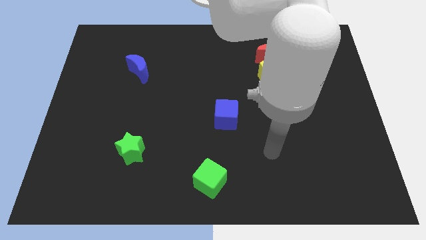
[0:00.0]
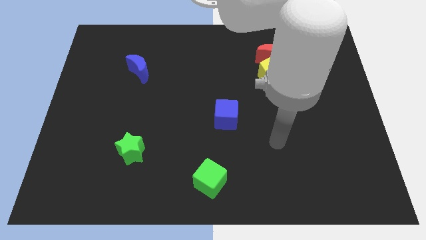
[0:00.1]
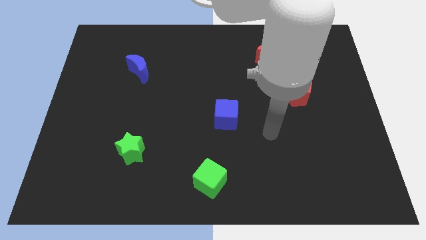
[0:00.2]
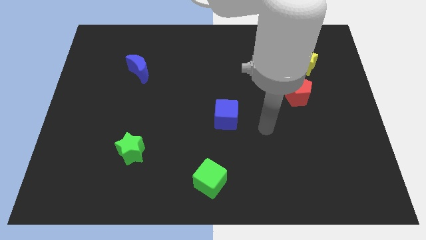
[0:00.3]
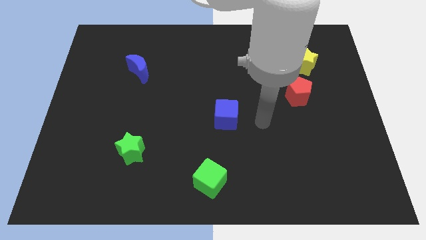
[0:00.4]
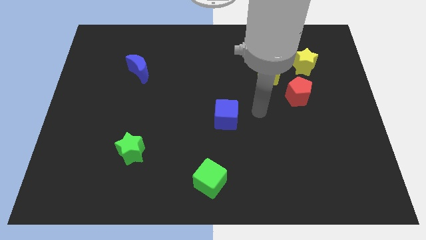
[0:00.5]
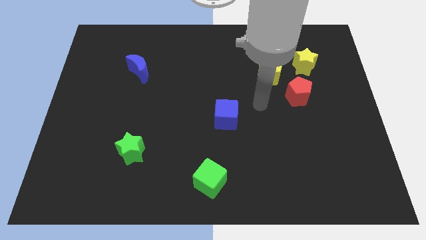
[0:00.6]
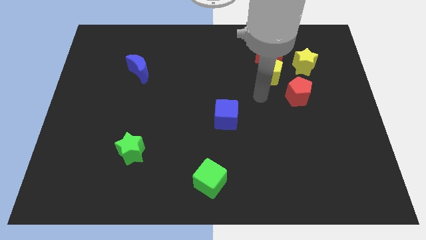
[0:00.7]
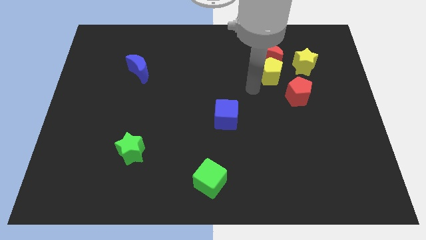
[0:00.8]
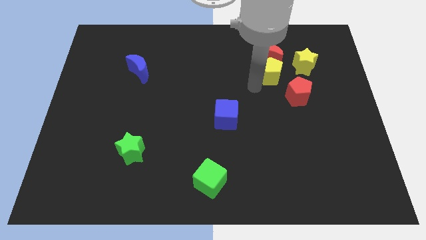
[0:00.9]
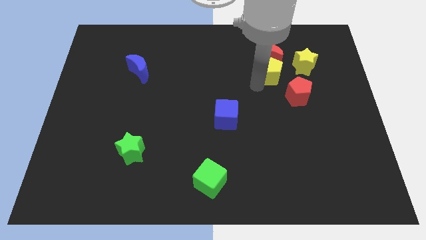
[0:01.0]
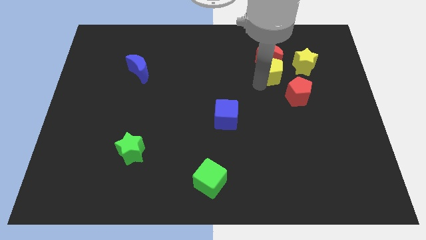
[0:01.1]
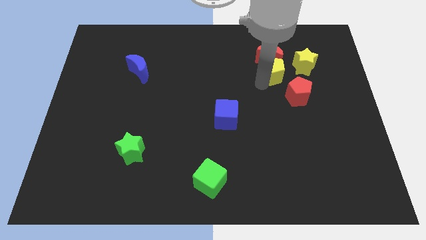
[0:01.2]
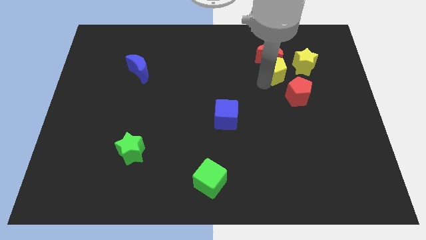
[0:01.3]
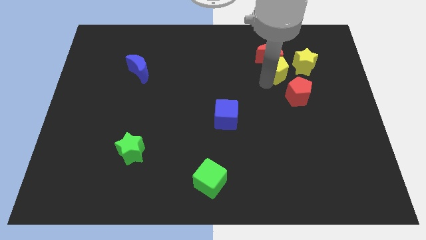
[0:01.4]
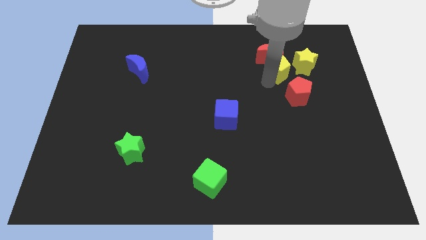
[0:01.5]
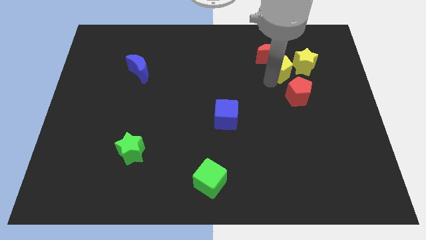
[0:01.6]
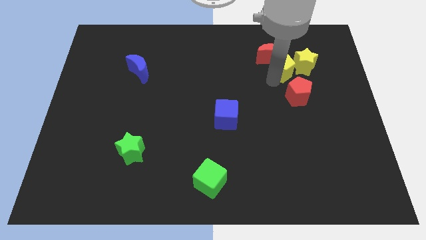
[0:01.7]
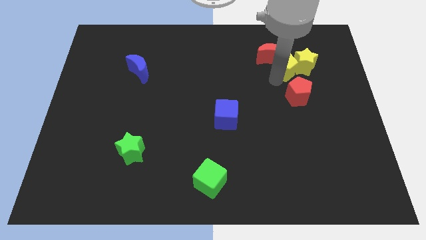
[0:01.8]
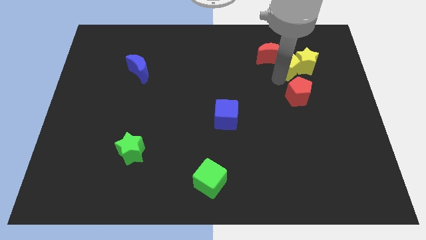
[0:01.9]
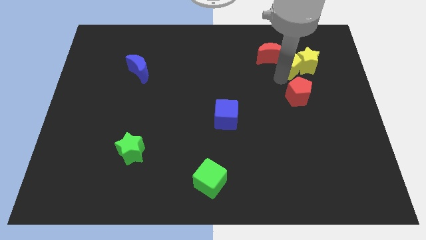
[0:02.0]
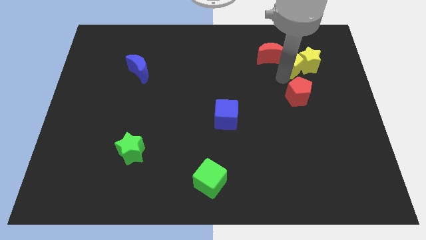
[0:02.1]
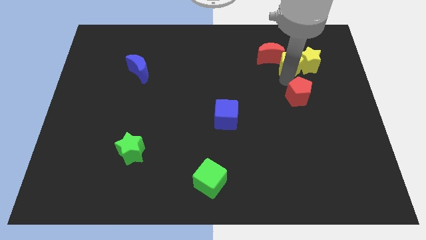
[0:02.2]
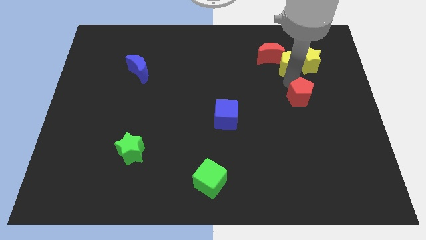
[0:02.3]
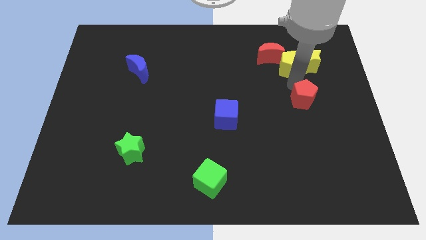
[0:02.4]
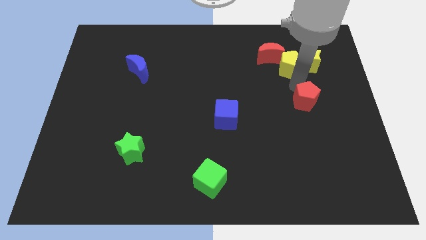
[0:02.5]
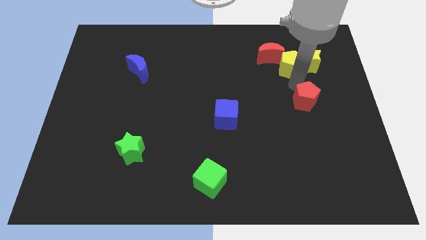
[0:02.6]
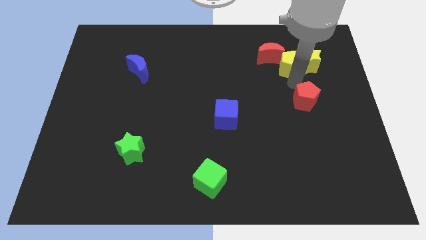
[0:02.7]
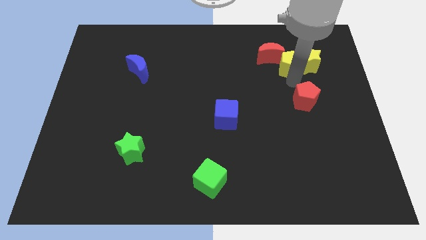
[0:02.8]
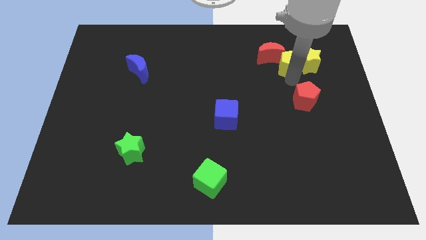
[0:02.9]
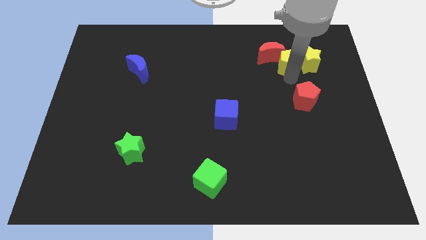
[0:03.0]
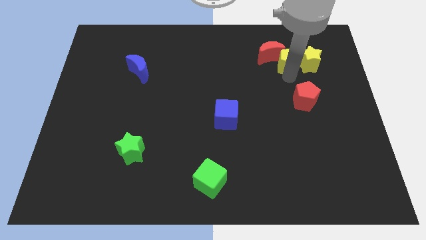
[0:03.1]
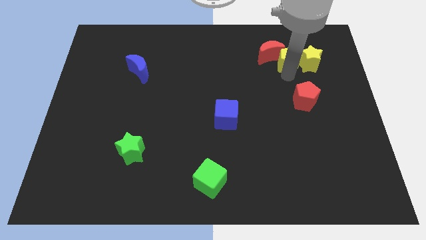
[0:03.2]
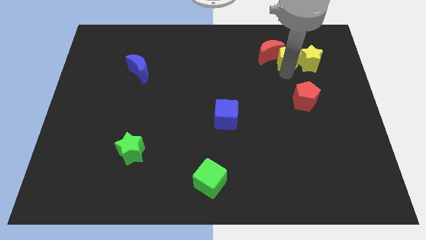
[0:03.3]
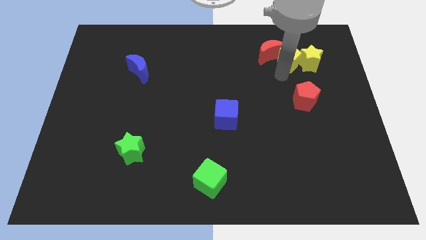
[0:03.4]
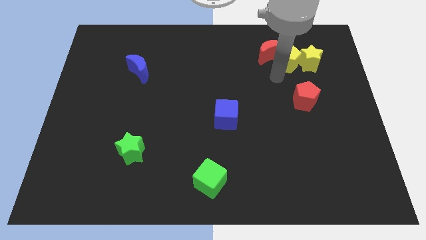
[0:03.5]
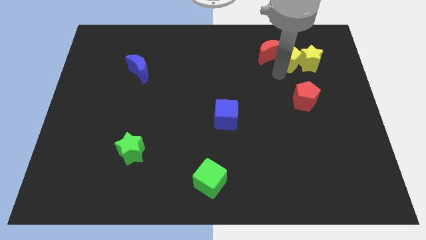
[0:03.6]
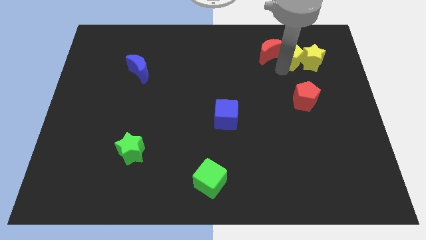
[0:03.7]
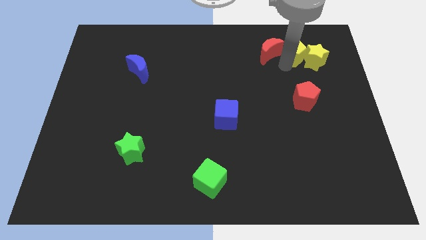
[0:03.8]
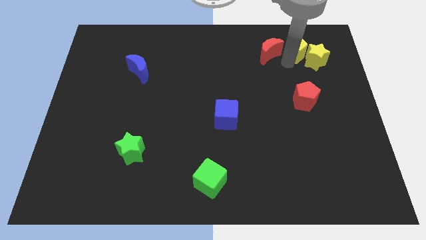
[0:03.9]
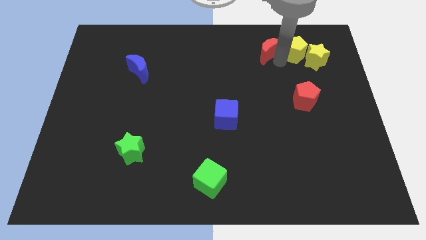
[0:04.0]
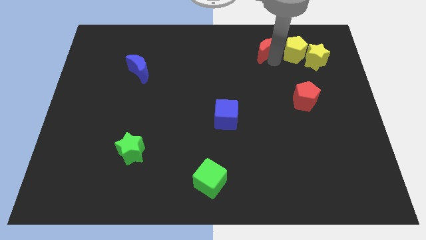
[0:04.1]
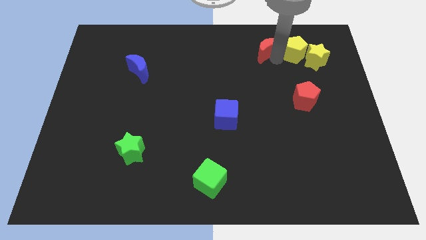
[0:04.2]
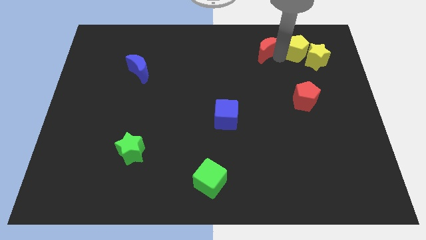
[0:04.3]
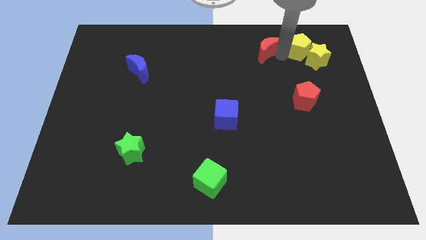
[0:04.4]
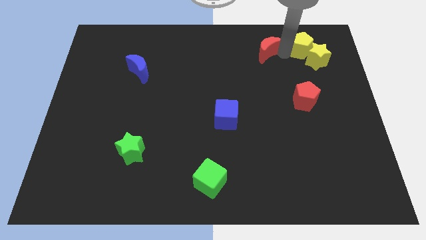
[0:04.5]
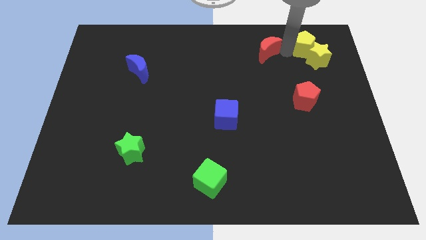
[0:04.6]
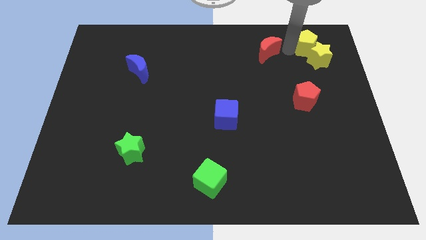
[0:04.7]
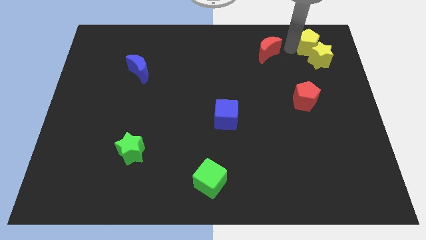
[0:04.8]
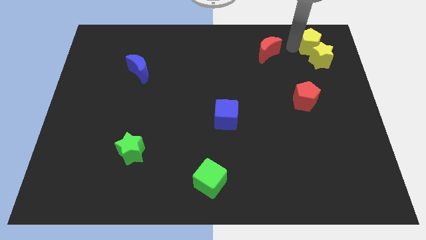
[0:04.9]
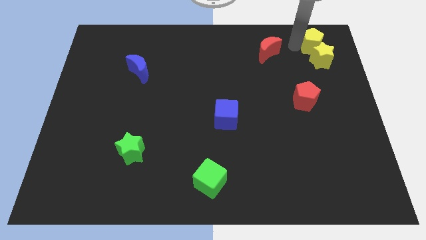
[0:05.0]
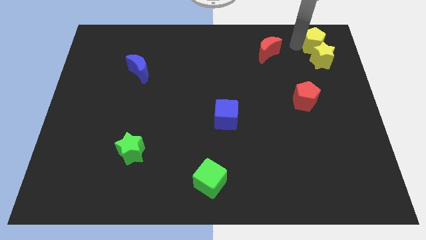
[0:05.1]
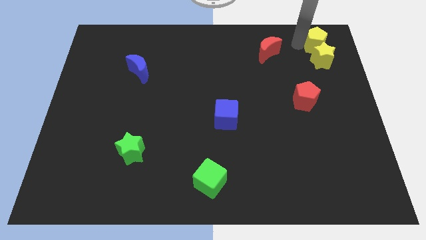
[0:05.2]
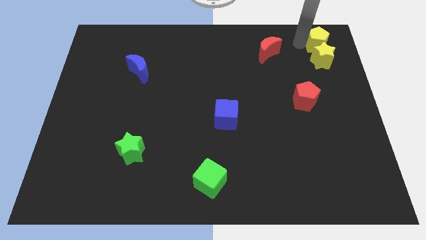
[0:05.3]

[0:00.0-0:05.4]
slide the yellow pentagon to the top right of the board

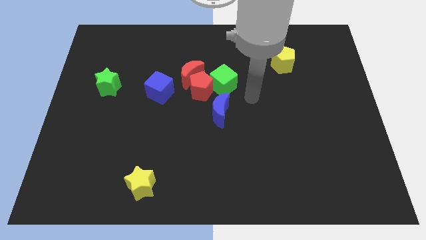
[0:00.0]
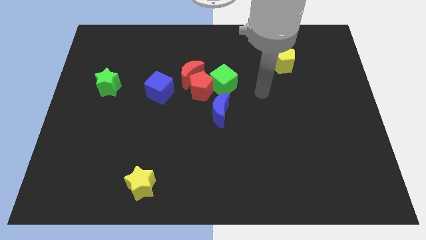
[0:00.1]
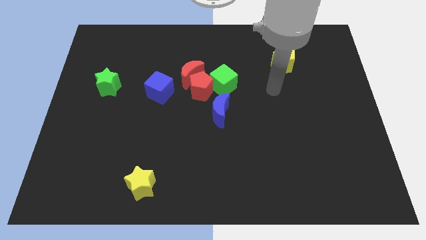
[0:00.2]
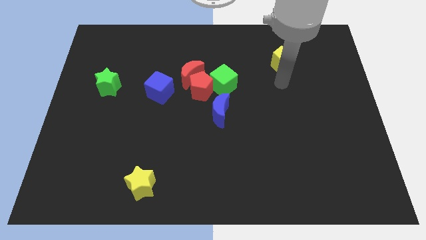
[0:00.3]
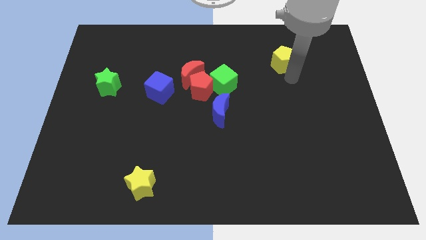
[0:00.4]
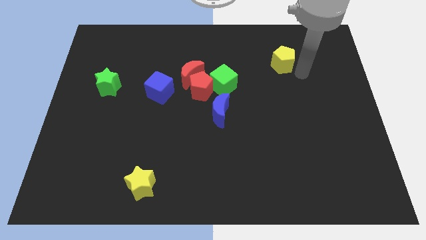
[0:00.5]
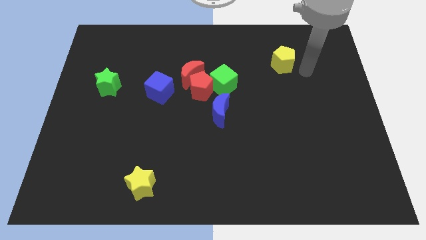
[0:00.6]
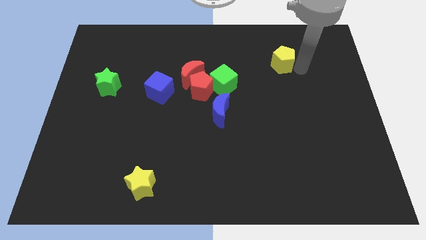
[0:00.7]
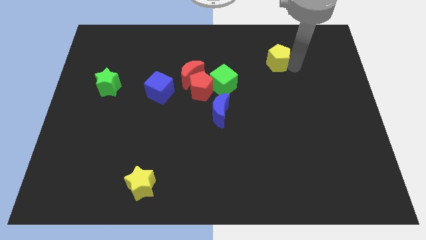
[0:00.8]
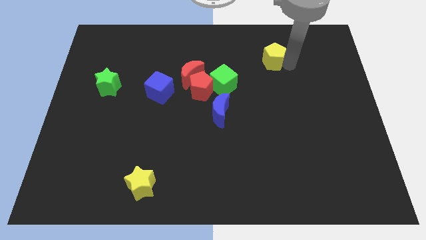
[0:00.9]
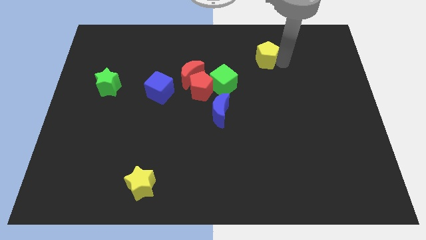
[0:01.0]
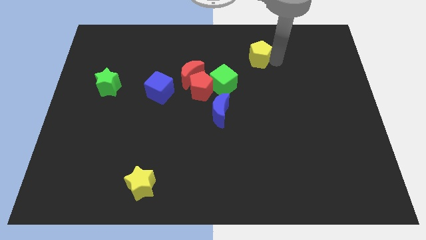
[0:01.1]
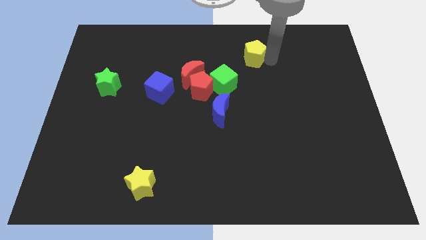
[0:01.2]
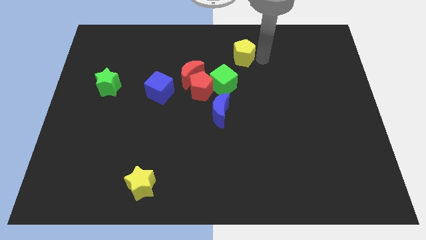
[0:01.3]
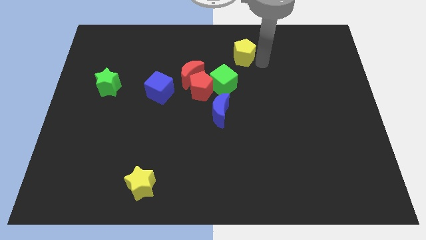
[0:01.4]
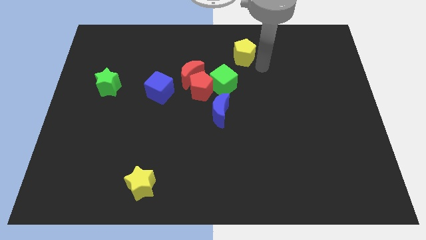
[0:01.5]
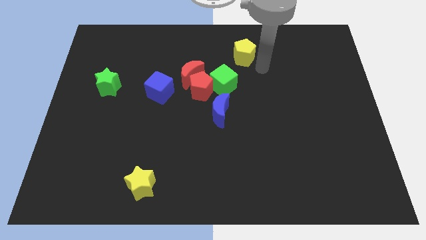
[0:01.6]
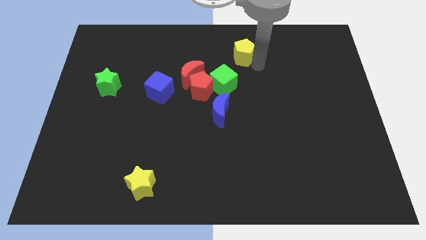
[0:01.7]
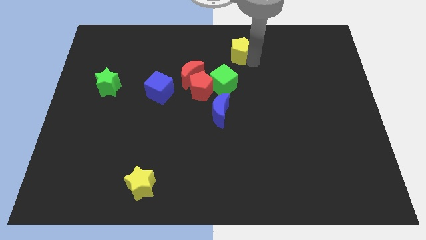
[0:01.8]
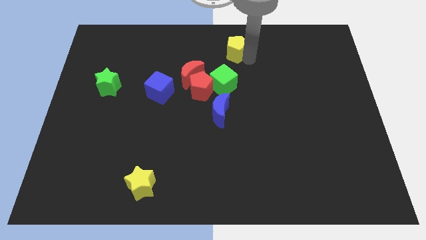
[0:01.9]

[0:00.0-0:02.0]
slide the yellow pentagon to the top
